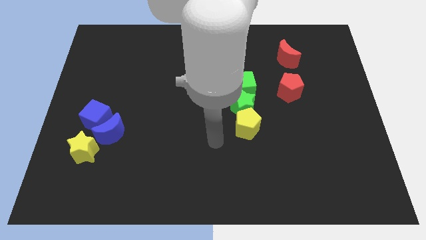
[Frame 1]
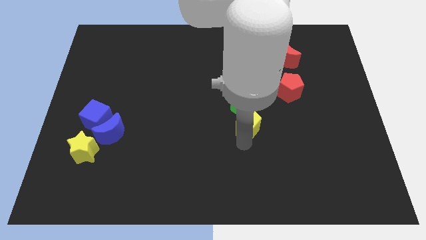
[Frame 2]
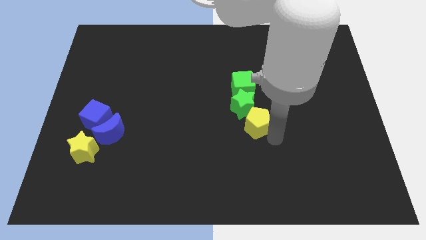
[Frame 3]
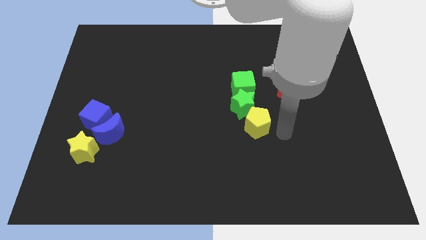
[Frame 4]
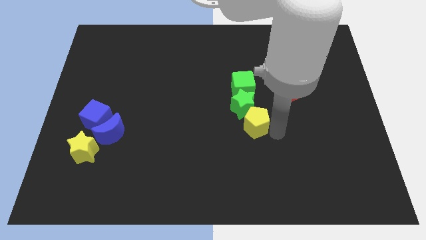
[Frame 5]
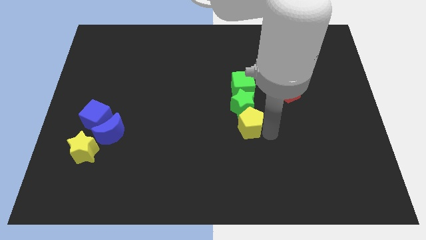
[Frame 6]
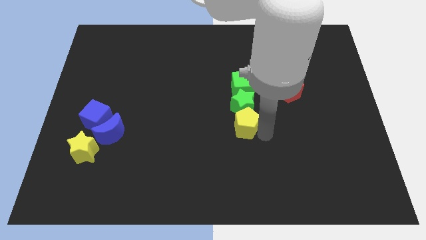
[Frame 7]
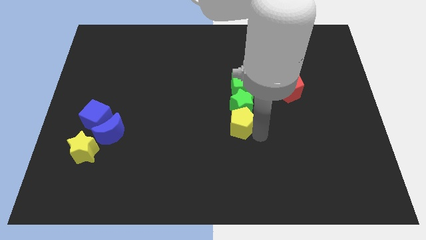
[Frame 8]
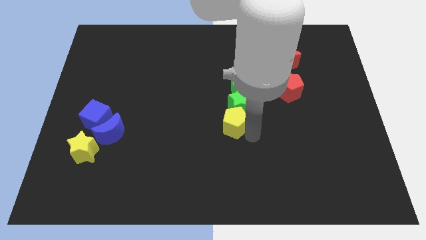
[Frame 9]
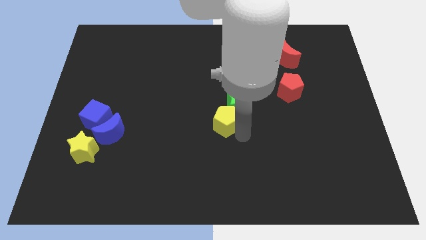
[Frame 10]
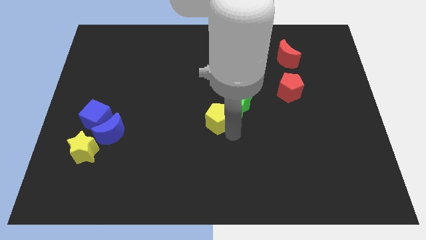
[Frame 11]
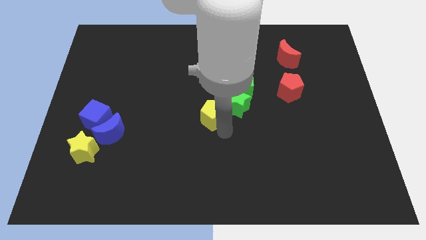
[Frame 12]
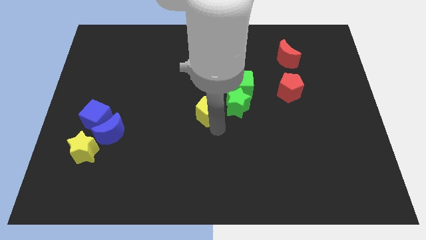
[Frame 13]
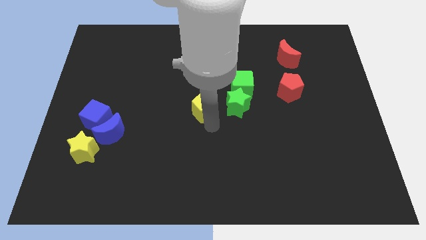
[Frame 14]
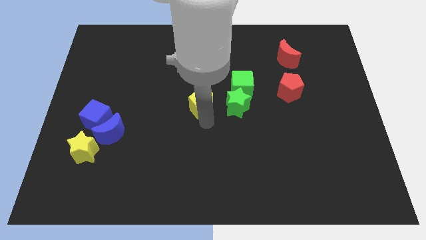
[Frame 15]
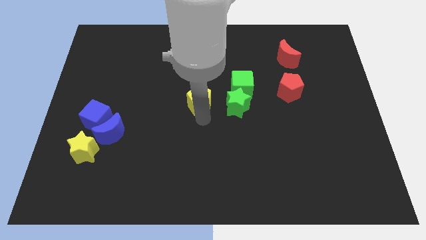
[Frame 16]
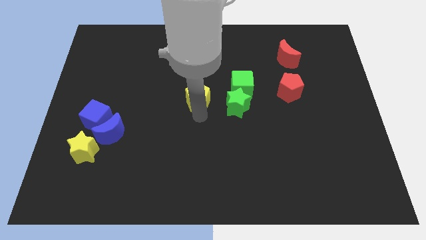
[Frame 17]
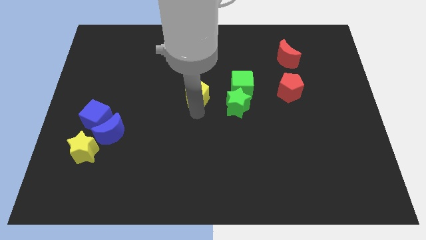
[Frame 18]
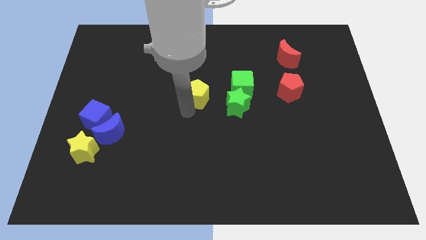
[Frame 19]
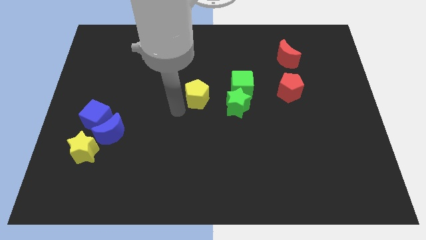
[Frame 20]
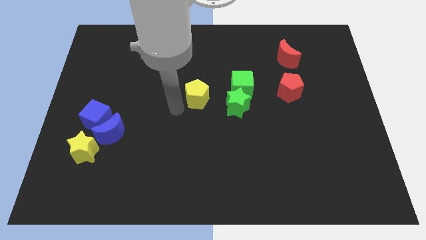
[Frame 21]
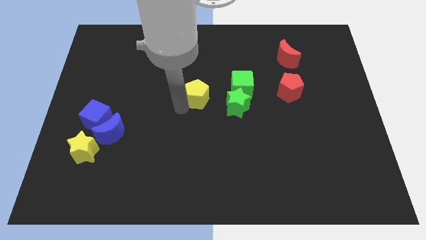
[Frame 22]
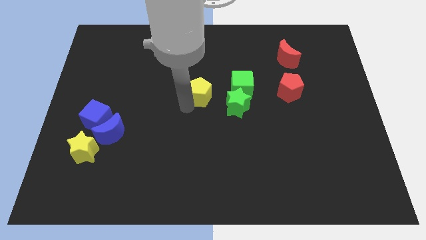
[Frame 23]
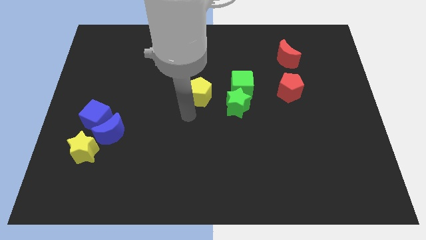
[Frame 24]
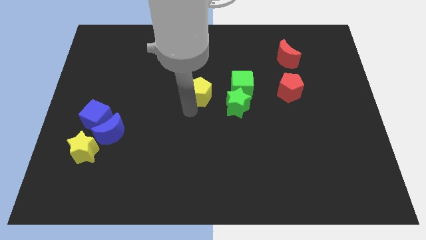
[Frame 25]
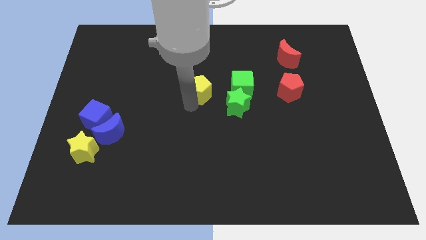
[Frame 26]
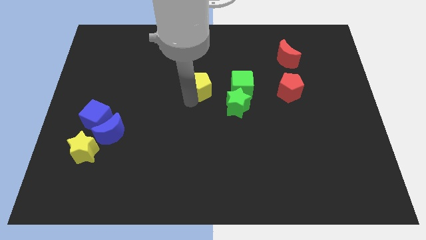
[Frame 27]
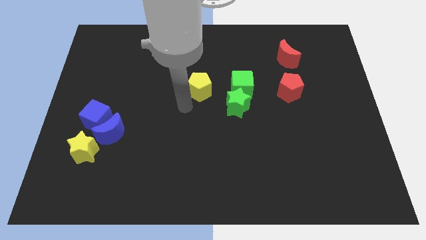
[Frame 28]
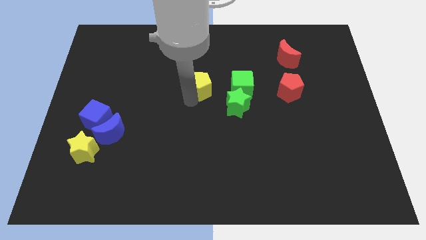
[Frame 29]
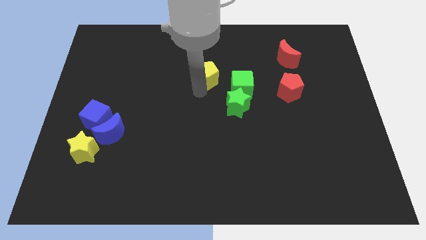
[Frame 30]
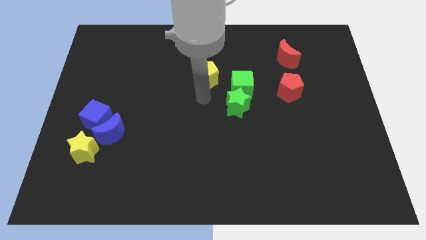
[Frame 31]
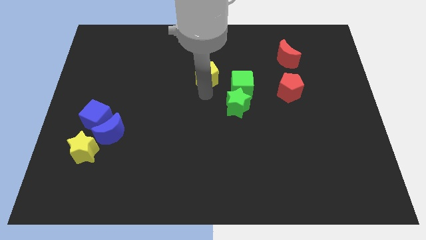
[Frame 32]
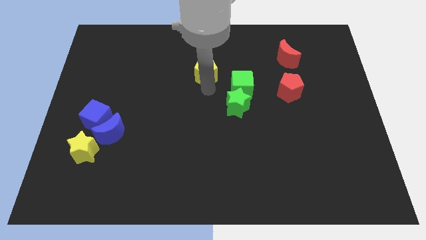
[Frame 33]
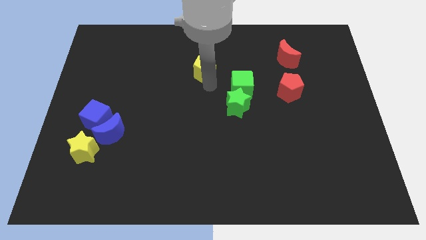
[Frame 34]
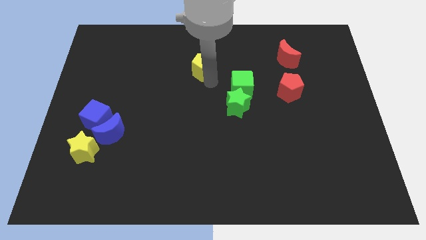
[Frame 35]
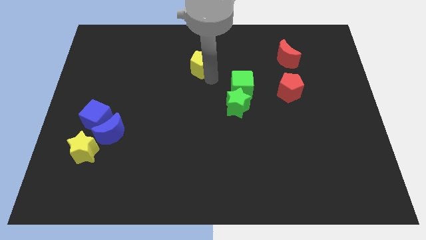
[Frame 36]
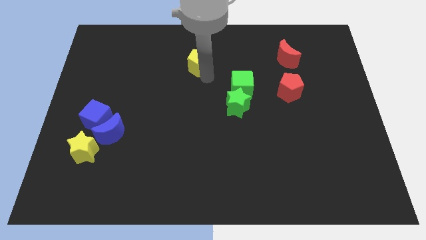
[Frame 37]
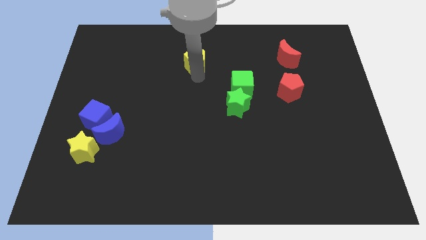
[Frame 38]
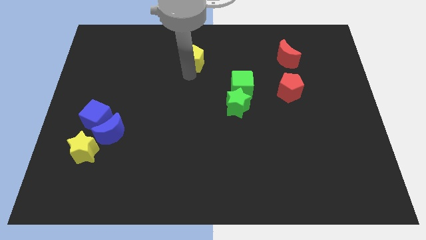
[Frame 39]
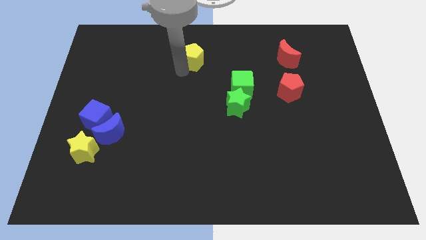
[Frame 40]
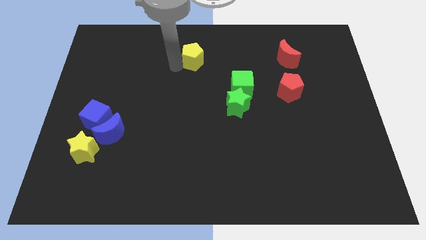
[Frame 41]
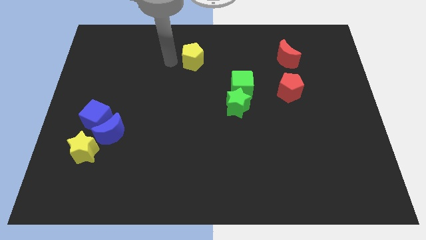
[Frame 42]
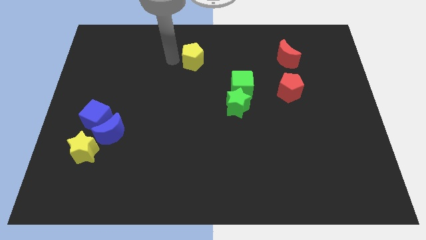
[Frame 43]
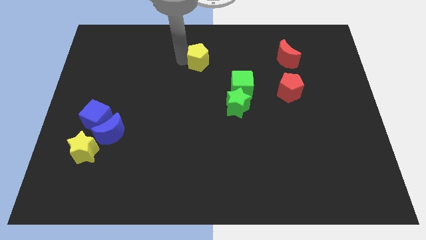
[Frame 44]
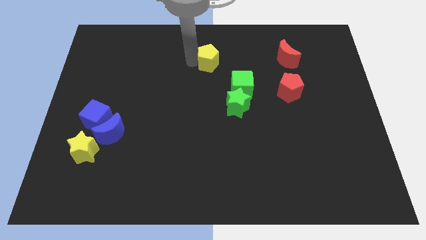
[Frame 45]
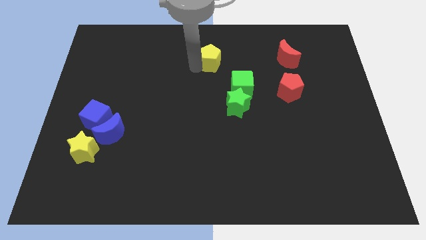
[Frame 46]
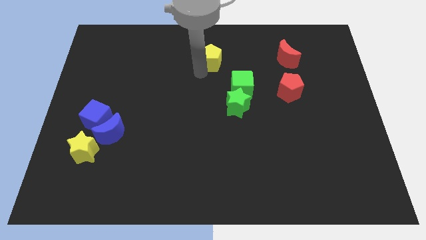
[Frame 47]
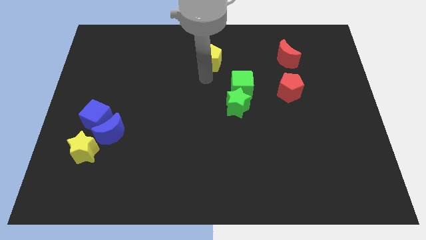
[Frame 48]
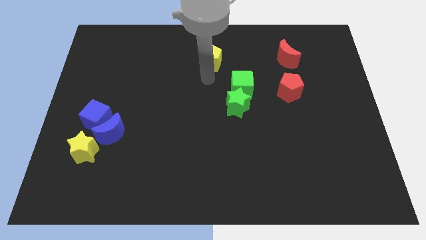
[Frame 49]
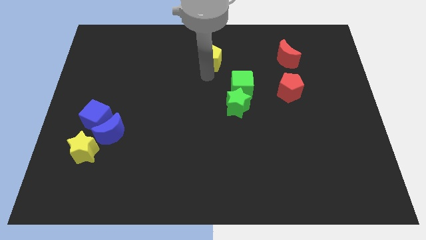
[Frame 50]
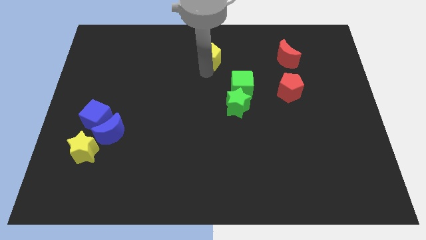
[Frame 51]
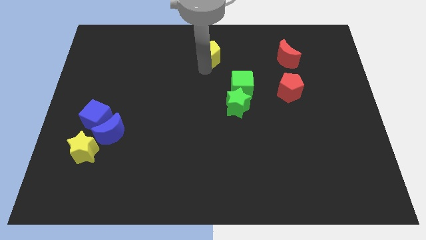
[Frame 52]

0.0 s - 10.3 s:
slide the yellow pentagon to the towards your base

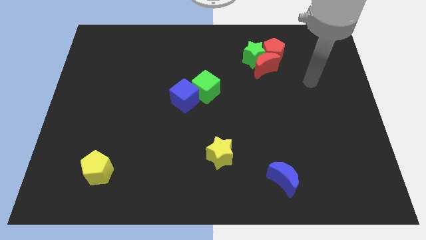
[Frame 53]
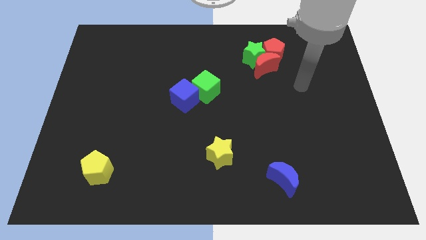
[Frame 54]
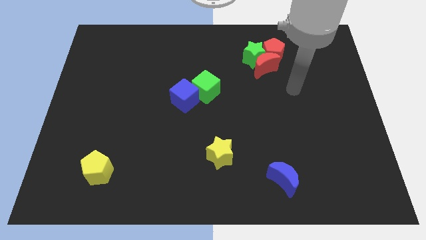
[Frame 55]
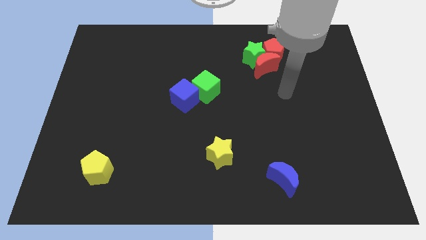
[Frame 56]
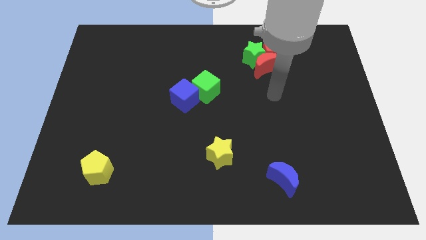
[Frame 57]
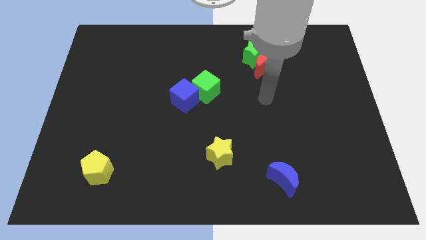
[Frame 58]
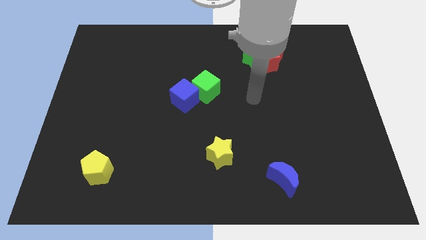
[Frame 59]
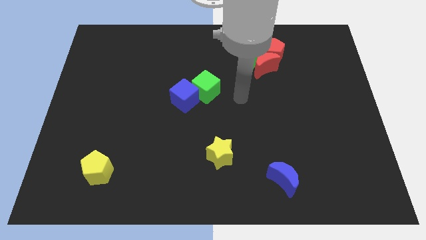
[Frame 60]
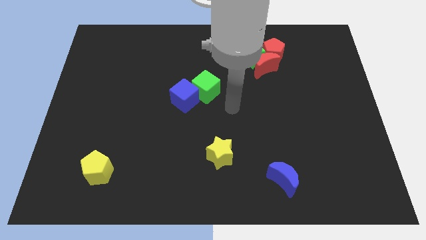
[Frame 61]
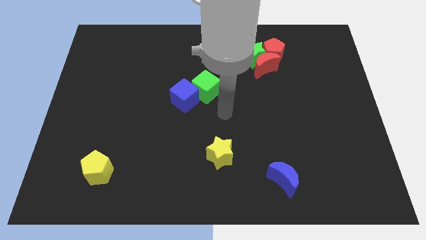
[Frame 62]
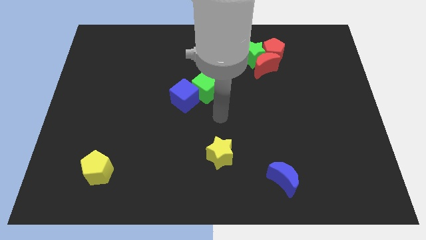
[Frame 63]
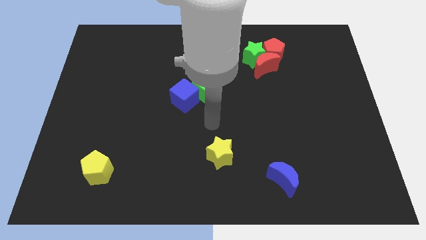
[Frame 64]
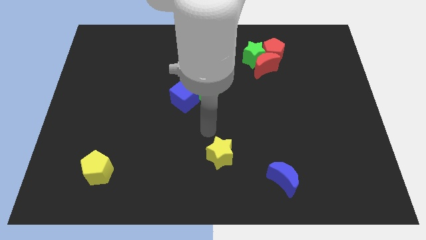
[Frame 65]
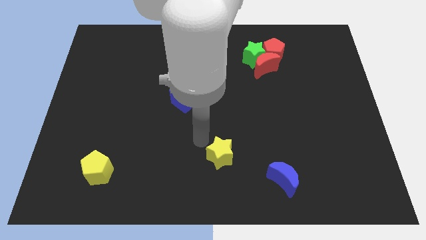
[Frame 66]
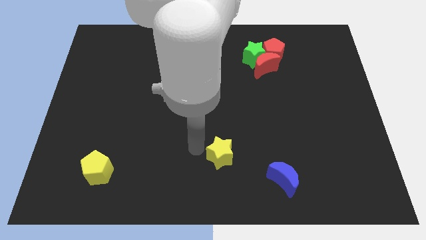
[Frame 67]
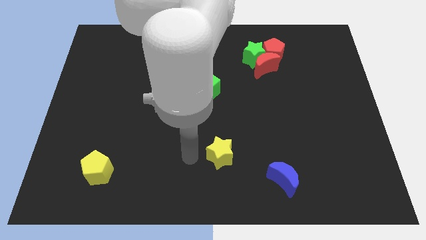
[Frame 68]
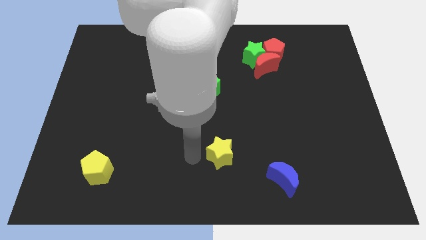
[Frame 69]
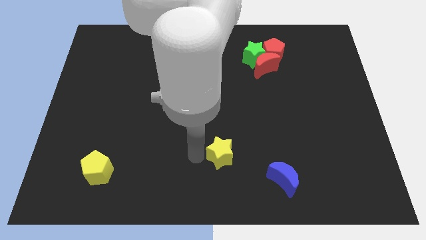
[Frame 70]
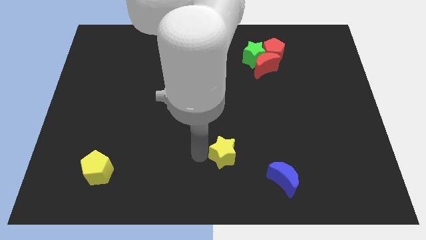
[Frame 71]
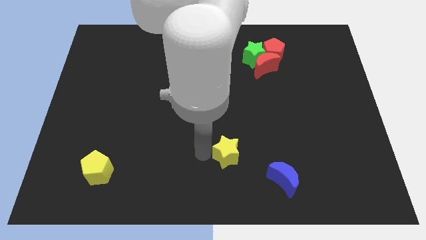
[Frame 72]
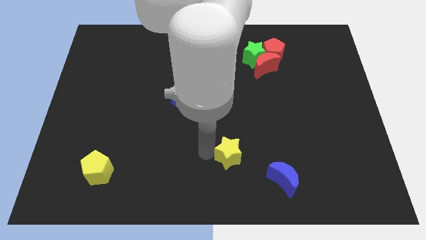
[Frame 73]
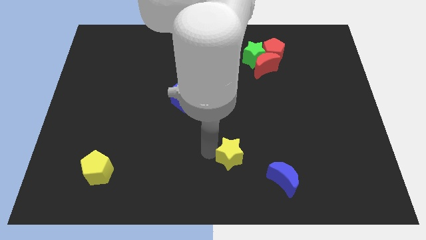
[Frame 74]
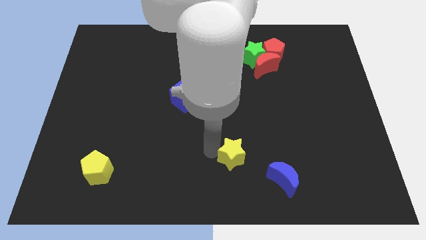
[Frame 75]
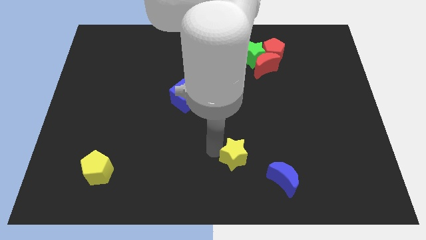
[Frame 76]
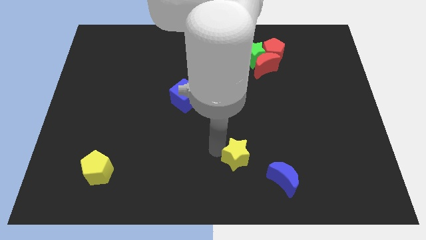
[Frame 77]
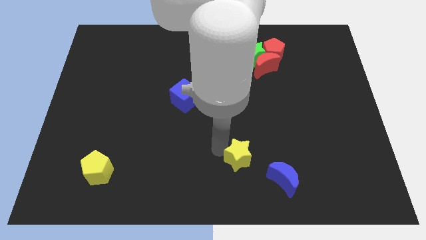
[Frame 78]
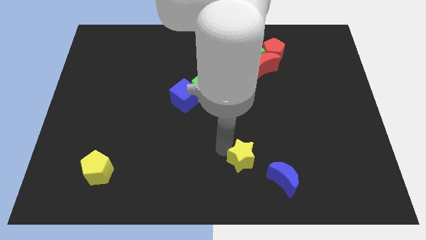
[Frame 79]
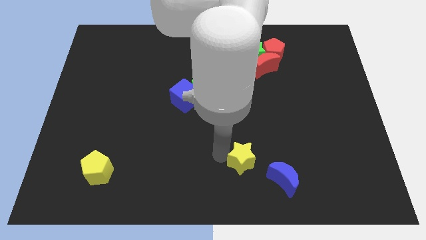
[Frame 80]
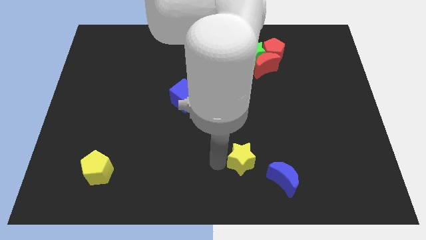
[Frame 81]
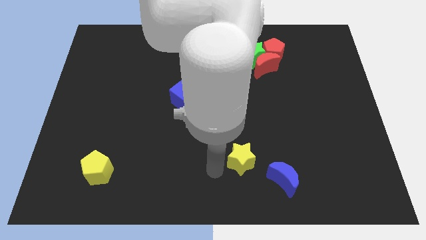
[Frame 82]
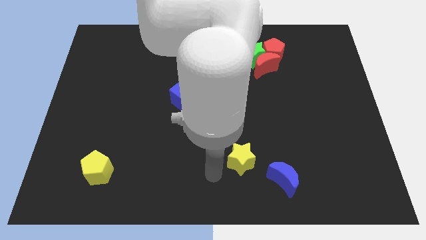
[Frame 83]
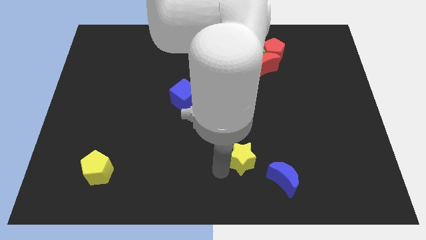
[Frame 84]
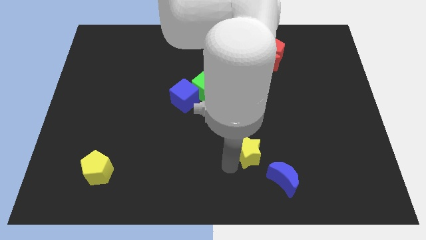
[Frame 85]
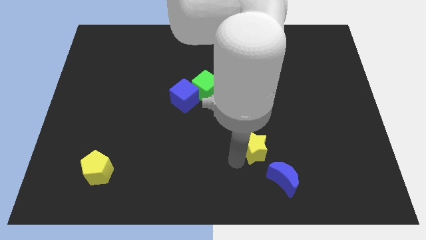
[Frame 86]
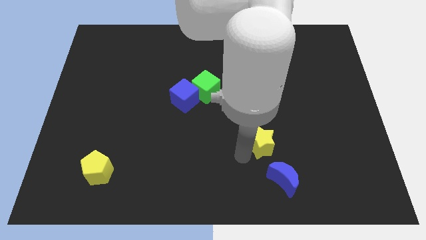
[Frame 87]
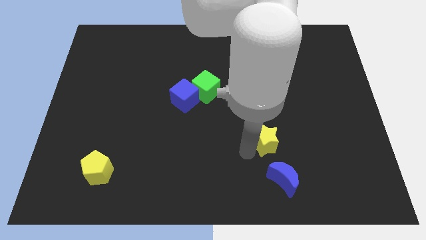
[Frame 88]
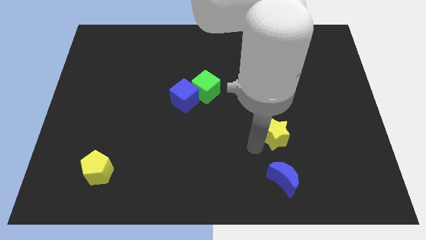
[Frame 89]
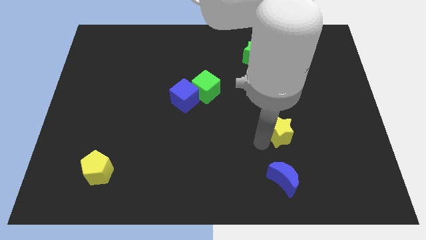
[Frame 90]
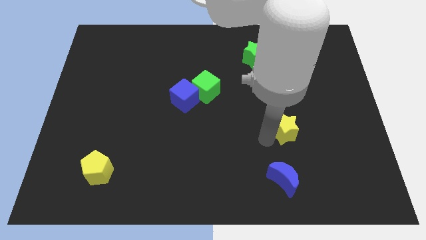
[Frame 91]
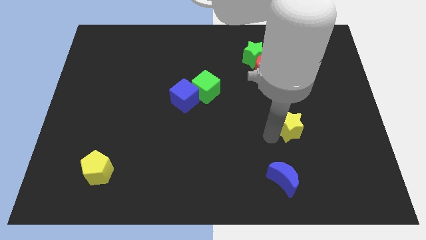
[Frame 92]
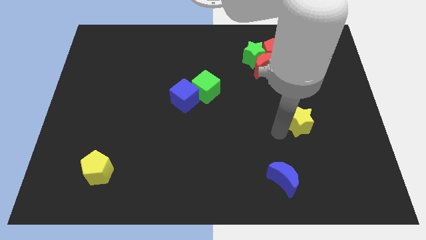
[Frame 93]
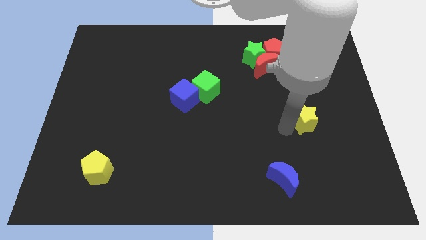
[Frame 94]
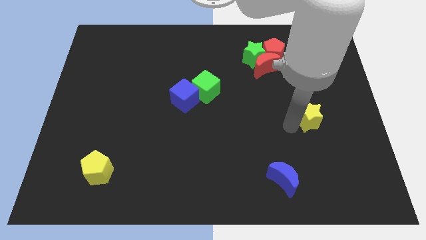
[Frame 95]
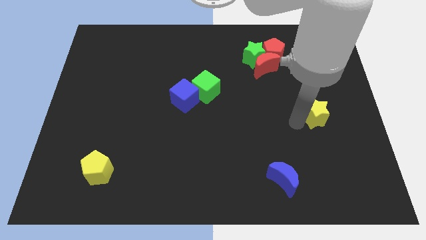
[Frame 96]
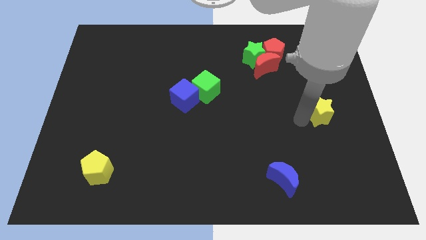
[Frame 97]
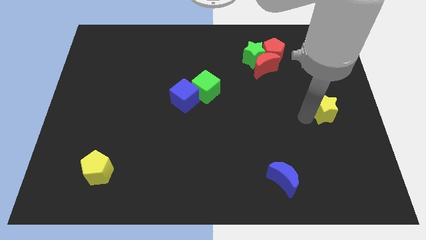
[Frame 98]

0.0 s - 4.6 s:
slide the yellow star to the right side of the board
